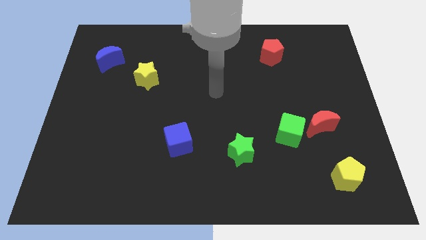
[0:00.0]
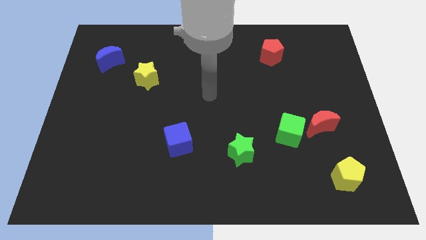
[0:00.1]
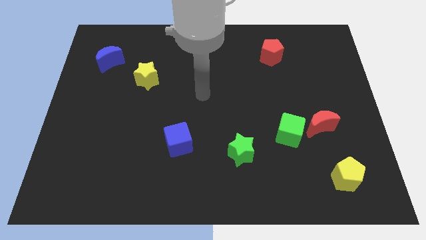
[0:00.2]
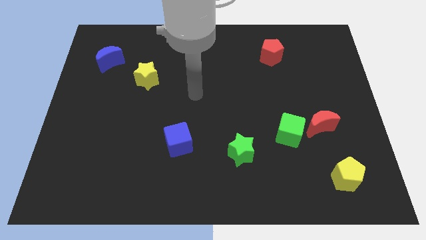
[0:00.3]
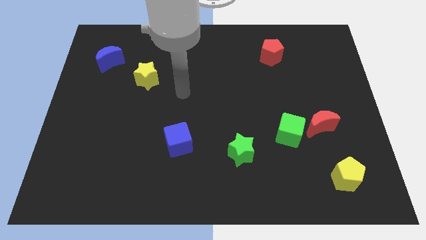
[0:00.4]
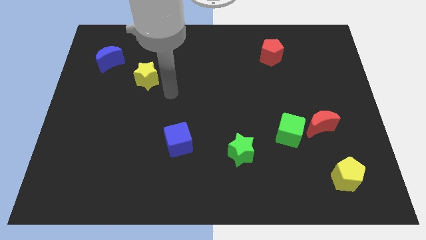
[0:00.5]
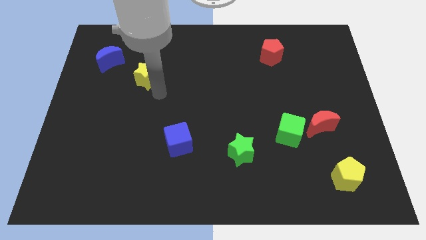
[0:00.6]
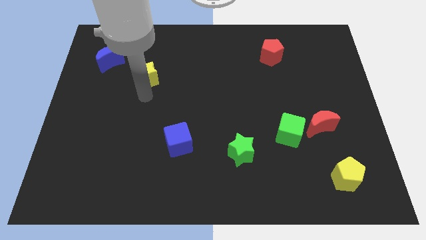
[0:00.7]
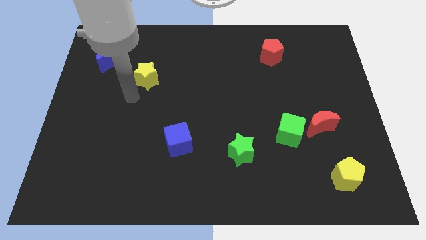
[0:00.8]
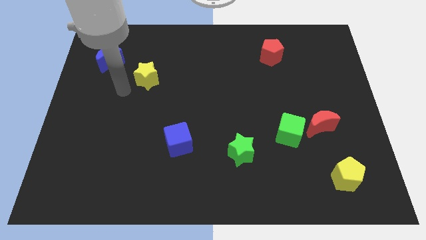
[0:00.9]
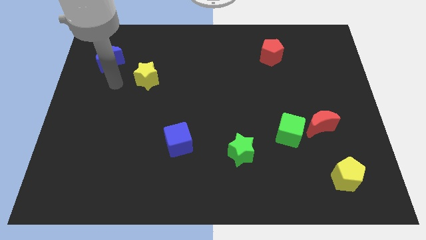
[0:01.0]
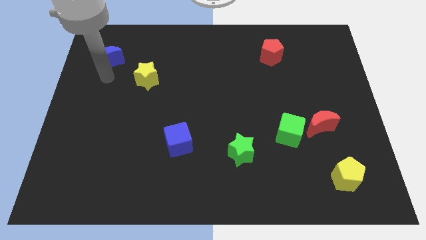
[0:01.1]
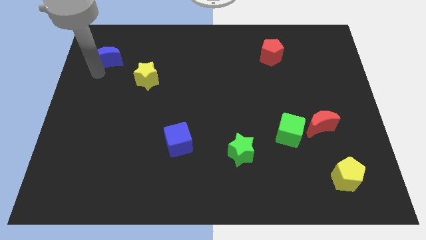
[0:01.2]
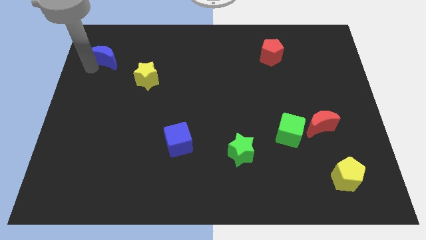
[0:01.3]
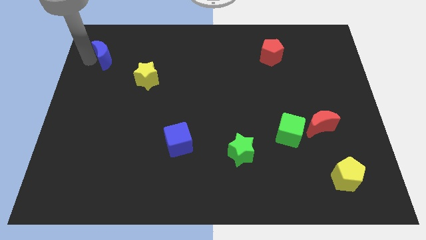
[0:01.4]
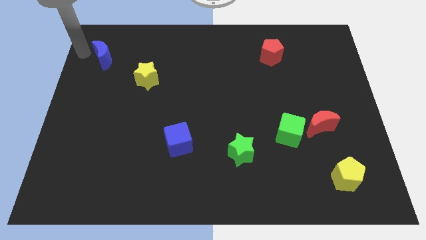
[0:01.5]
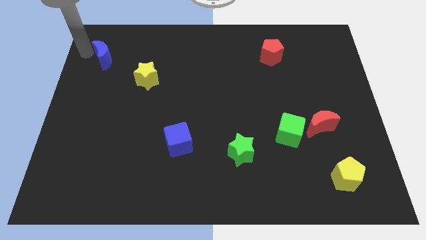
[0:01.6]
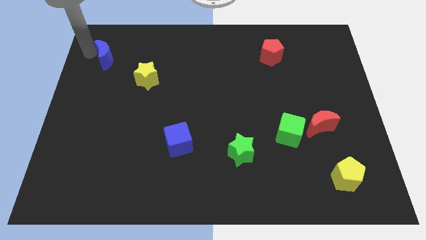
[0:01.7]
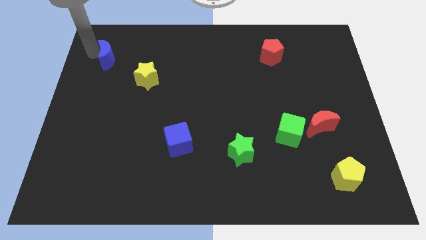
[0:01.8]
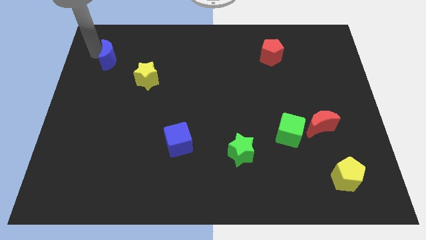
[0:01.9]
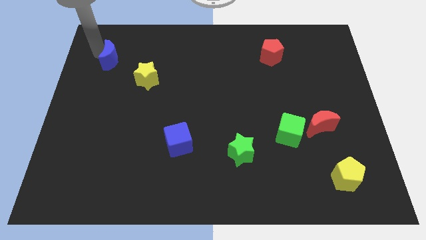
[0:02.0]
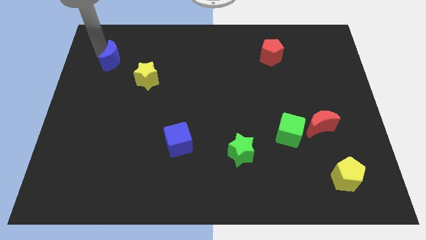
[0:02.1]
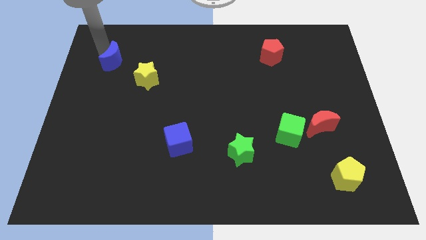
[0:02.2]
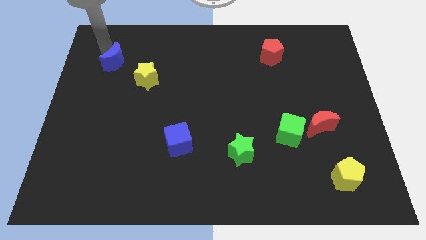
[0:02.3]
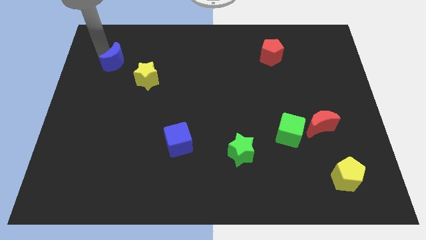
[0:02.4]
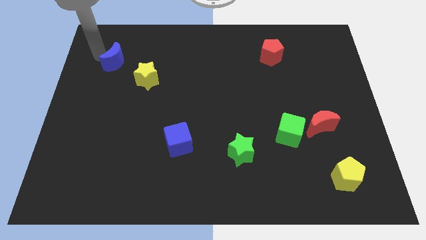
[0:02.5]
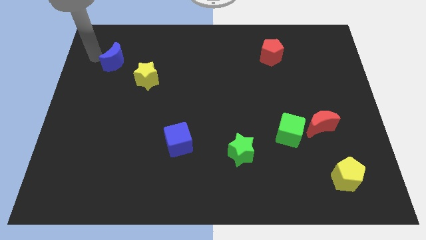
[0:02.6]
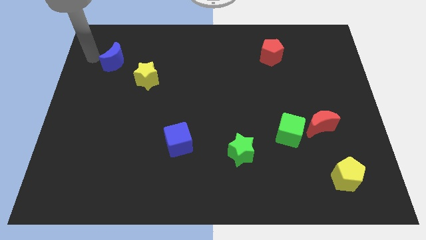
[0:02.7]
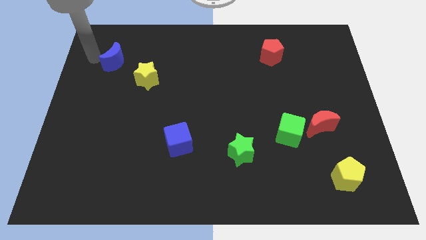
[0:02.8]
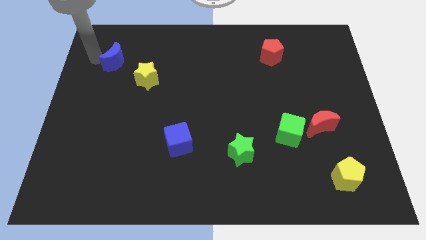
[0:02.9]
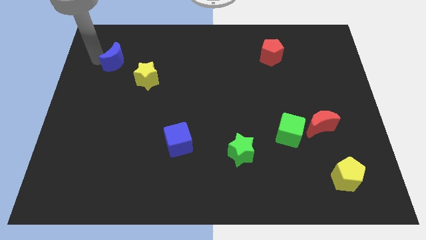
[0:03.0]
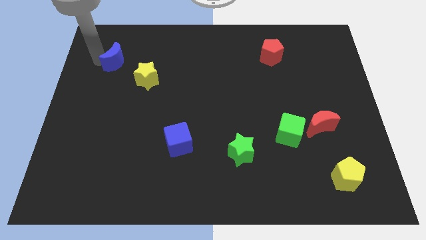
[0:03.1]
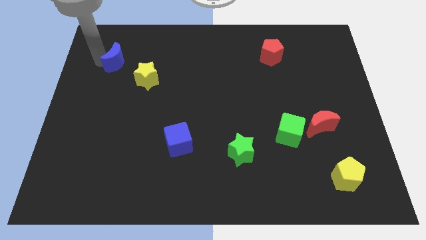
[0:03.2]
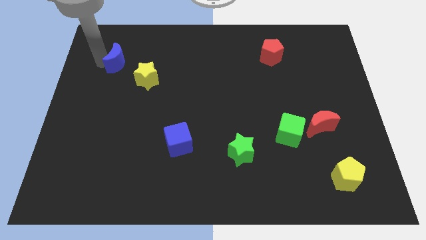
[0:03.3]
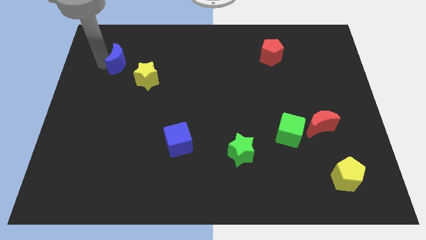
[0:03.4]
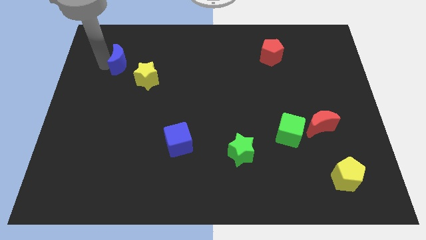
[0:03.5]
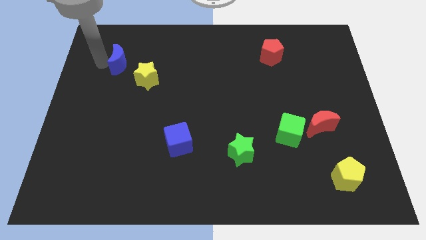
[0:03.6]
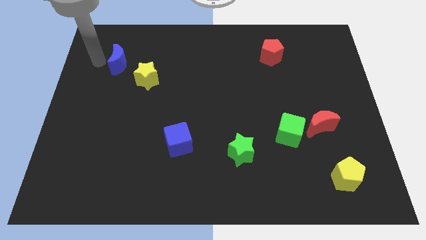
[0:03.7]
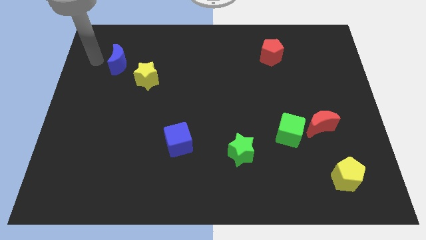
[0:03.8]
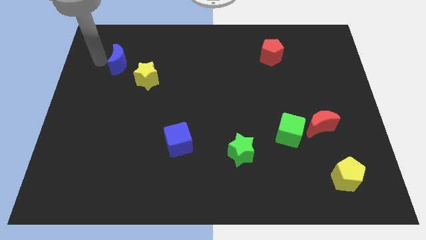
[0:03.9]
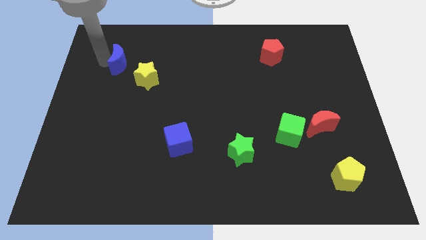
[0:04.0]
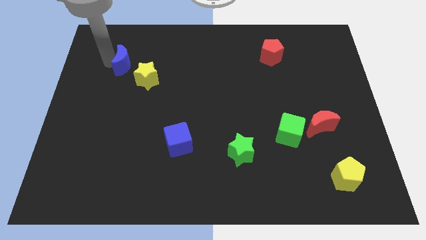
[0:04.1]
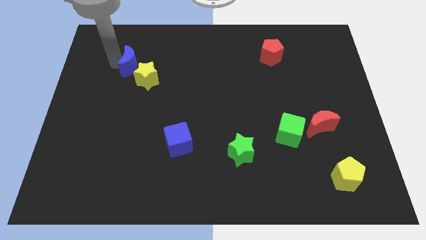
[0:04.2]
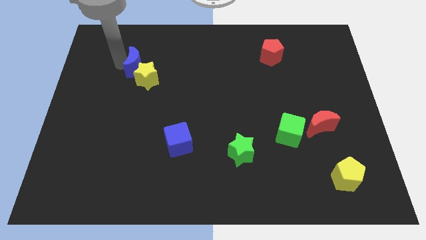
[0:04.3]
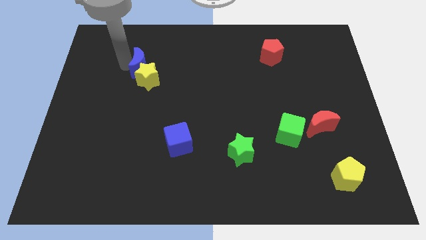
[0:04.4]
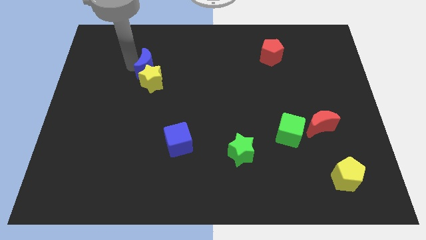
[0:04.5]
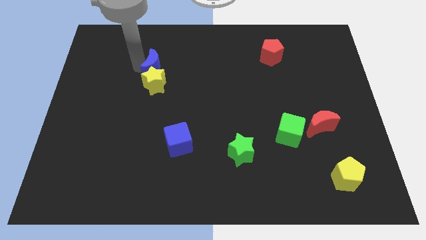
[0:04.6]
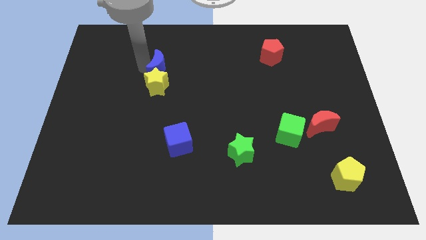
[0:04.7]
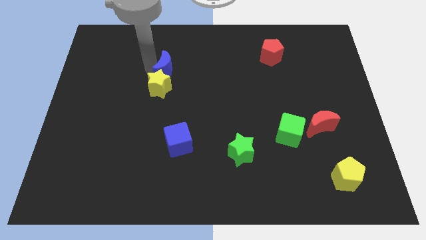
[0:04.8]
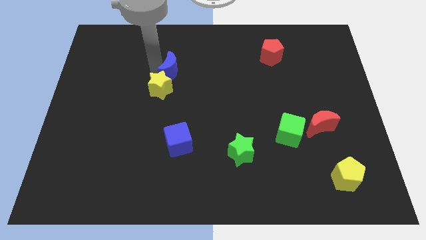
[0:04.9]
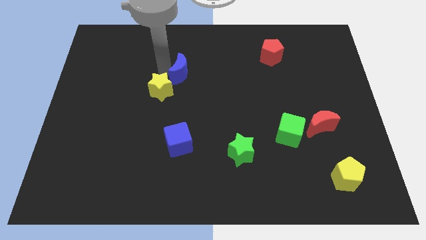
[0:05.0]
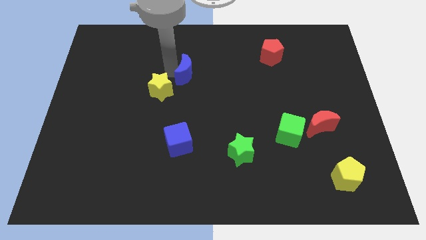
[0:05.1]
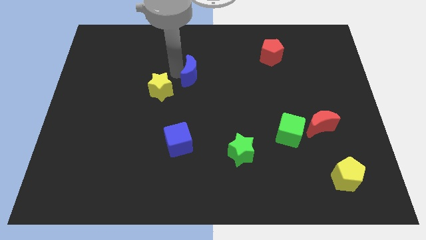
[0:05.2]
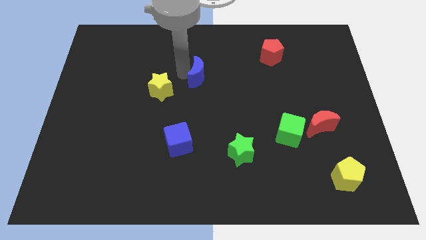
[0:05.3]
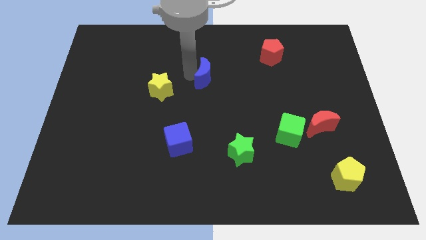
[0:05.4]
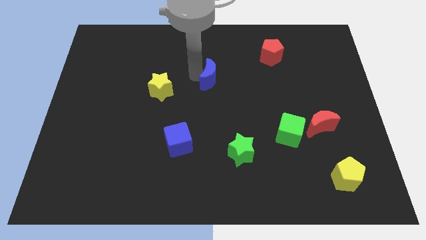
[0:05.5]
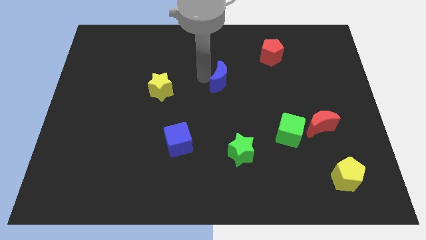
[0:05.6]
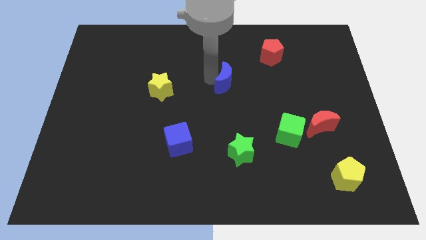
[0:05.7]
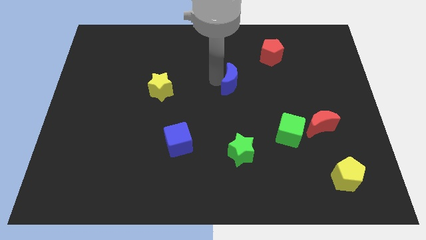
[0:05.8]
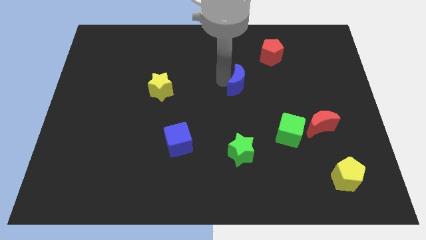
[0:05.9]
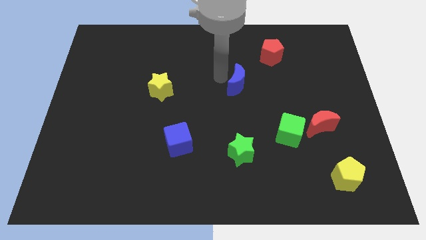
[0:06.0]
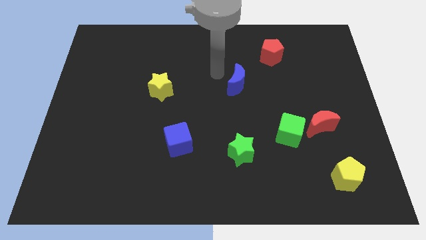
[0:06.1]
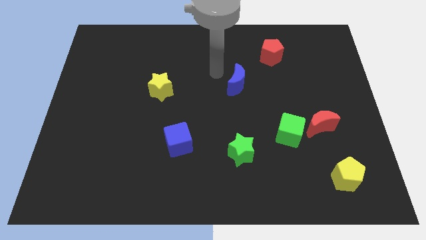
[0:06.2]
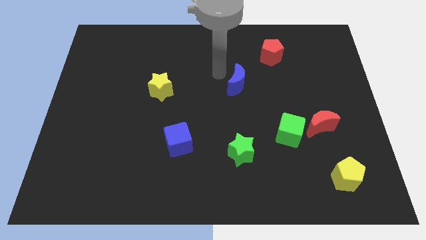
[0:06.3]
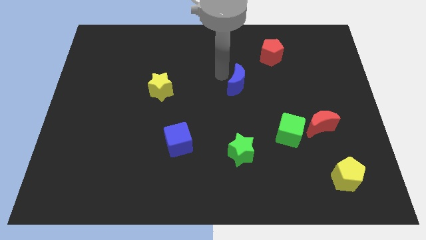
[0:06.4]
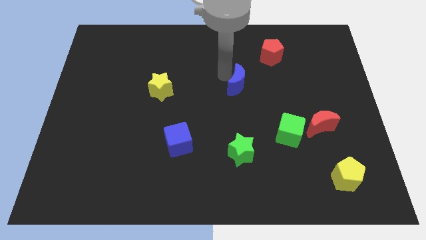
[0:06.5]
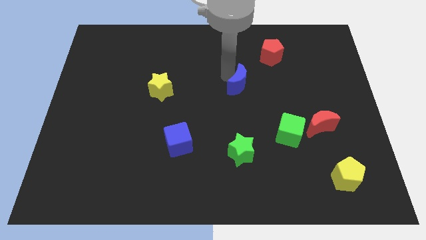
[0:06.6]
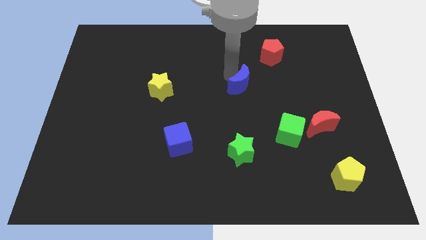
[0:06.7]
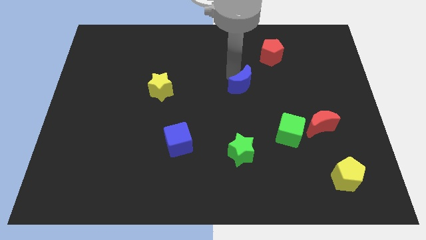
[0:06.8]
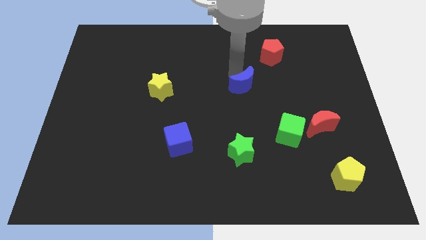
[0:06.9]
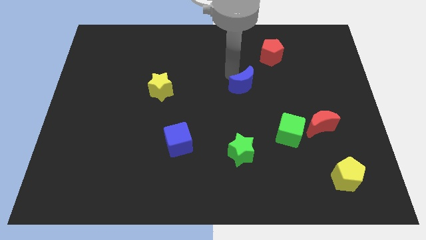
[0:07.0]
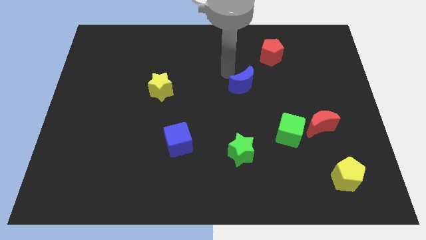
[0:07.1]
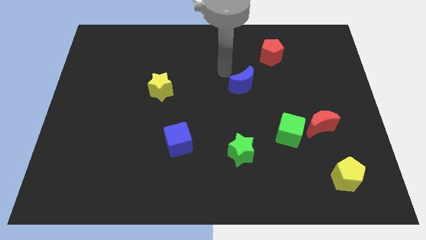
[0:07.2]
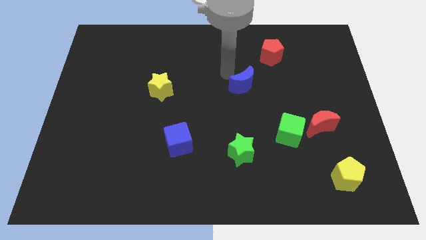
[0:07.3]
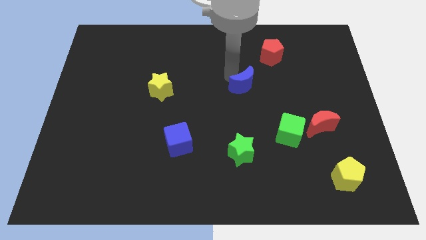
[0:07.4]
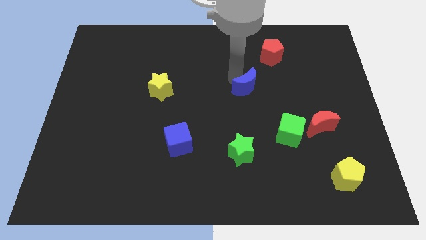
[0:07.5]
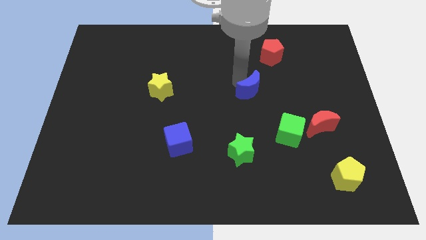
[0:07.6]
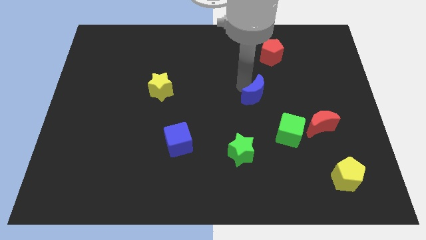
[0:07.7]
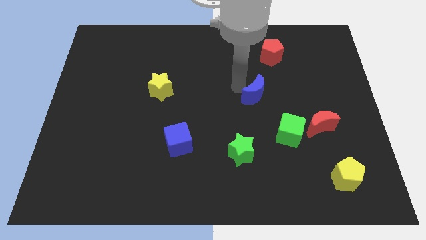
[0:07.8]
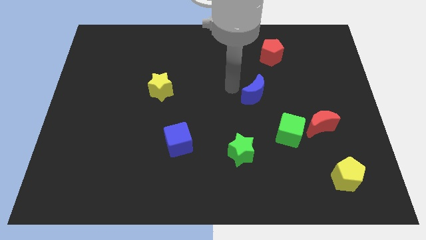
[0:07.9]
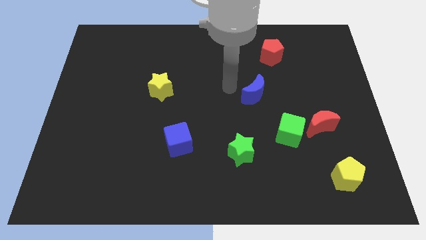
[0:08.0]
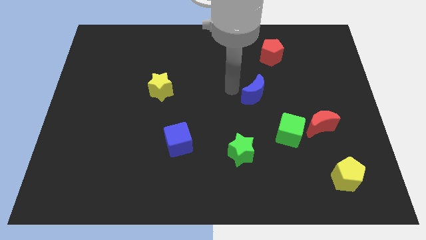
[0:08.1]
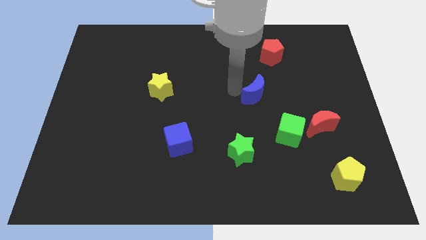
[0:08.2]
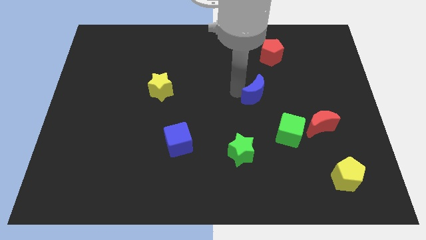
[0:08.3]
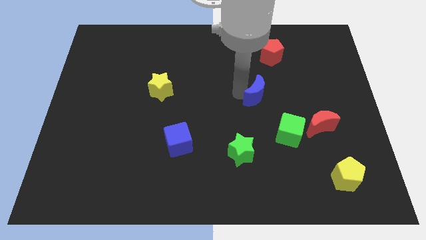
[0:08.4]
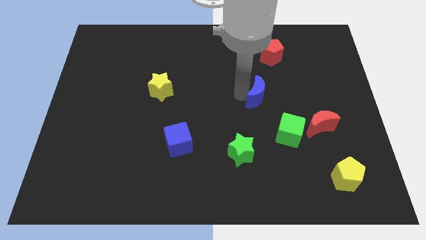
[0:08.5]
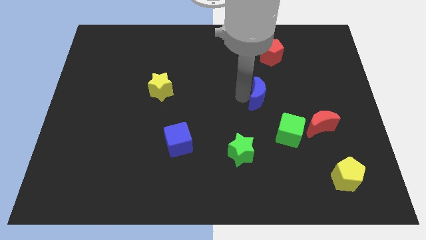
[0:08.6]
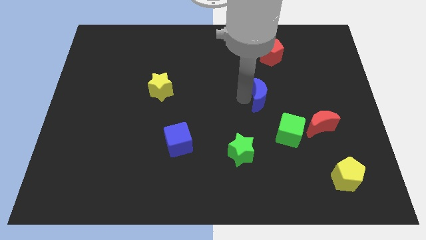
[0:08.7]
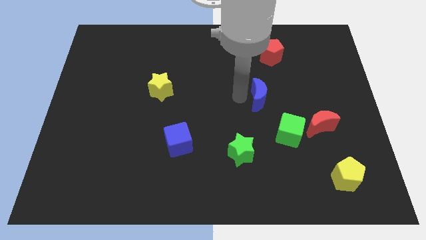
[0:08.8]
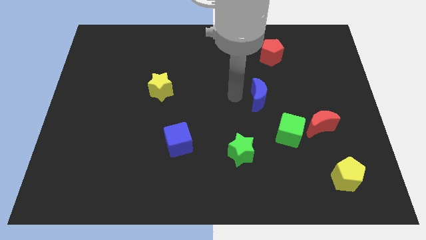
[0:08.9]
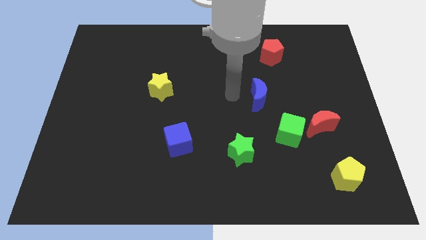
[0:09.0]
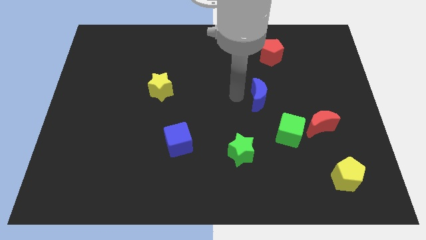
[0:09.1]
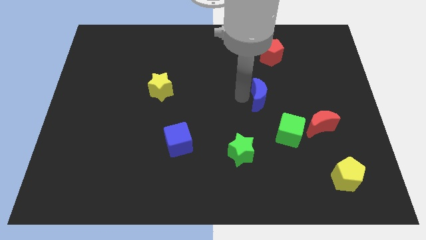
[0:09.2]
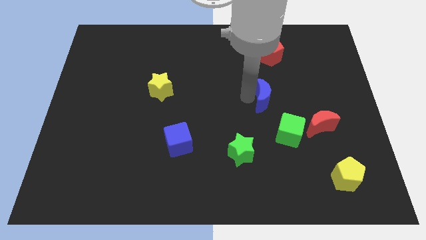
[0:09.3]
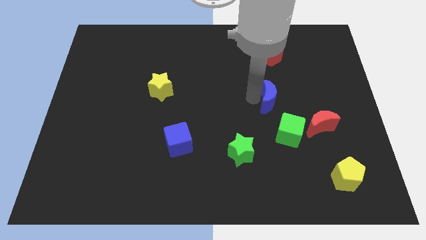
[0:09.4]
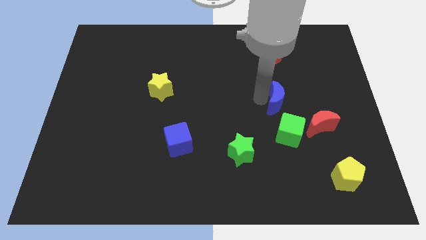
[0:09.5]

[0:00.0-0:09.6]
slide the blue moon diagonally up and to the left of the red moon
